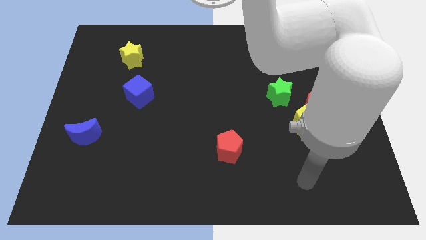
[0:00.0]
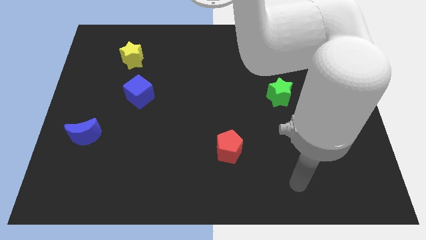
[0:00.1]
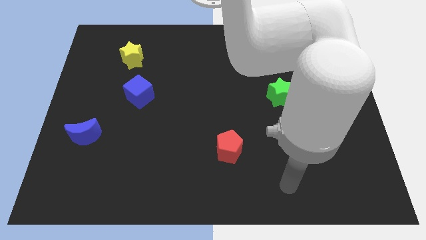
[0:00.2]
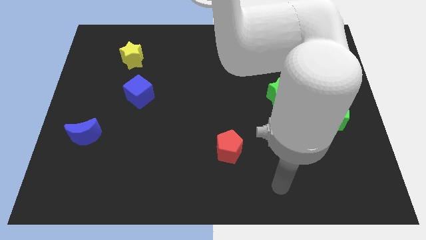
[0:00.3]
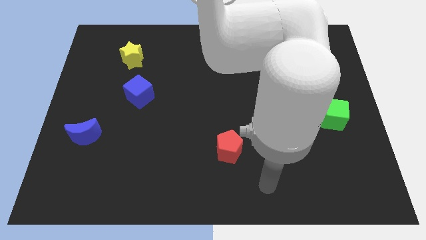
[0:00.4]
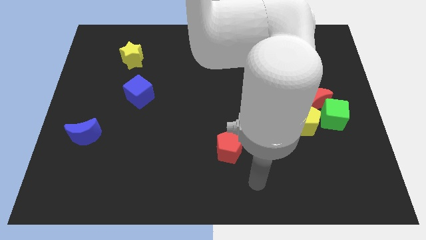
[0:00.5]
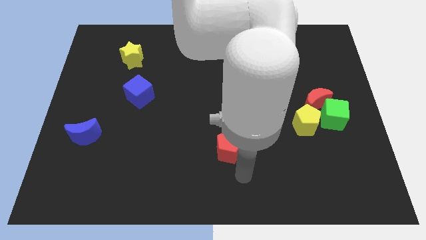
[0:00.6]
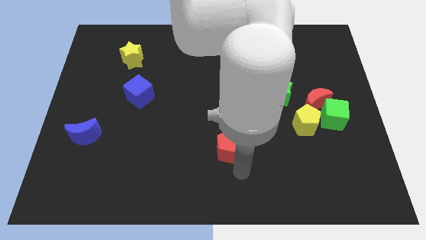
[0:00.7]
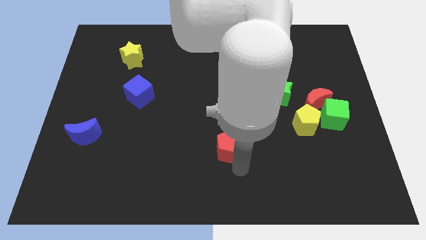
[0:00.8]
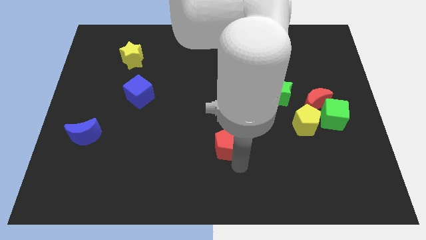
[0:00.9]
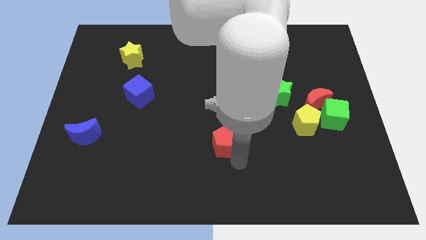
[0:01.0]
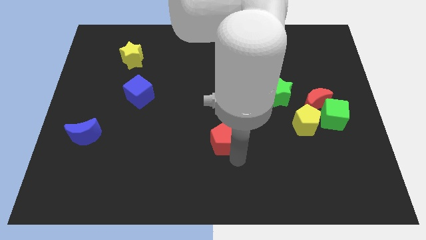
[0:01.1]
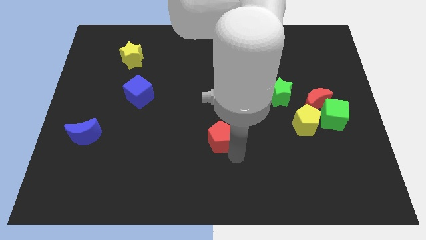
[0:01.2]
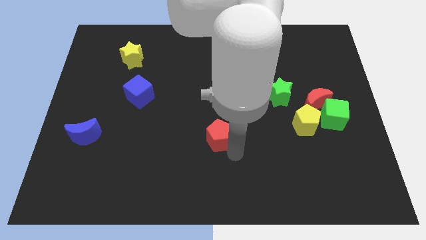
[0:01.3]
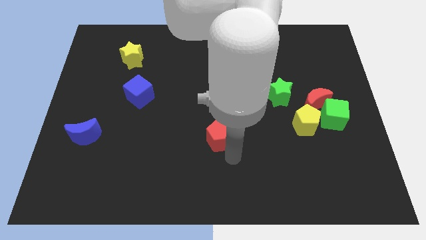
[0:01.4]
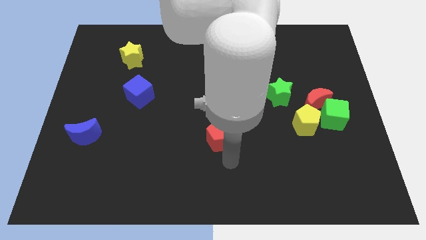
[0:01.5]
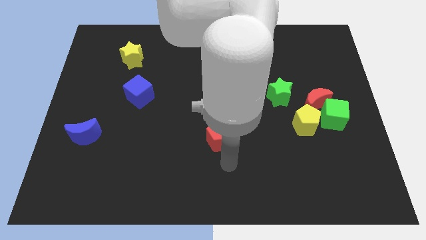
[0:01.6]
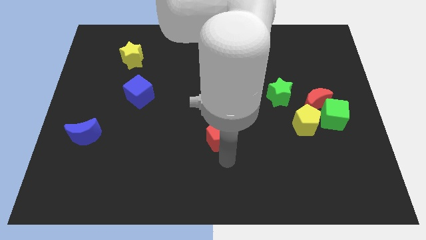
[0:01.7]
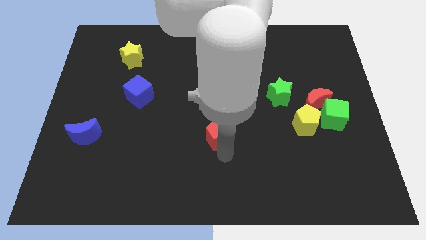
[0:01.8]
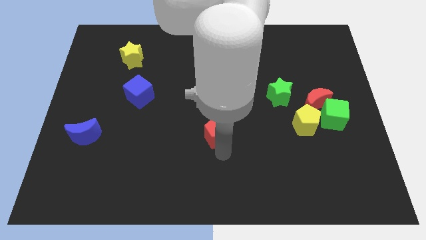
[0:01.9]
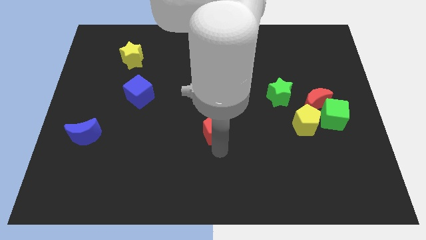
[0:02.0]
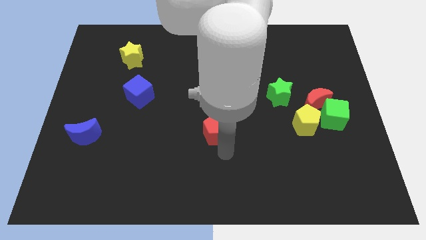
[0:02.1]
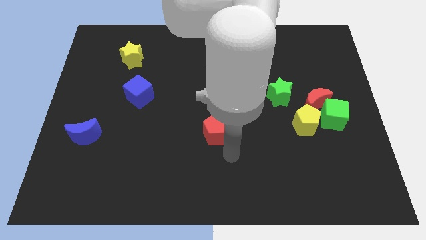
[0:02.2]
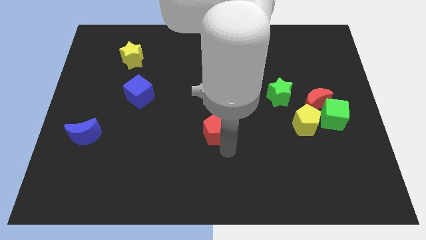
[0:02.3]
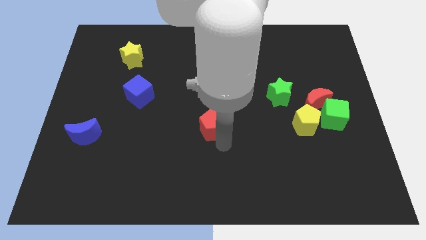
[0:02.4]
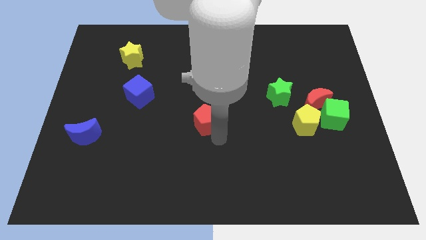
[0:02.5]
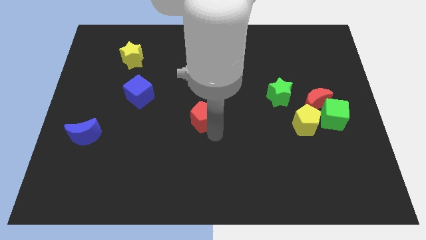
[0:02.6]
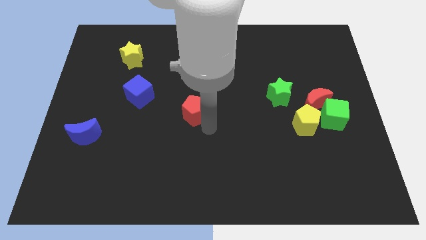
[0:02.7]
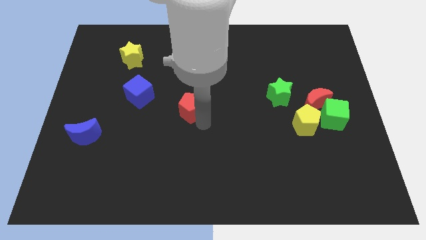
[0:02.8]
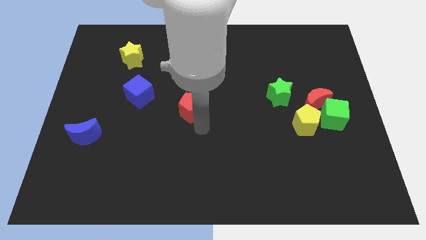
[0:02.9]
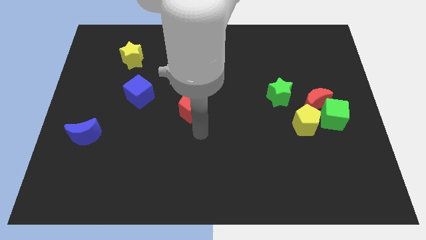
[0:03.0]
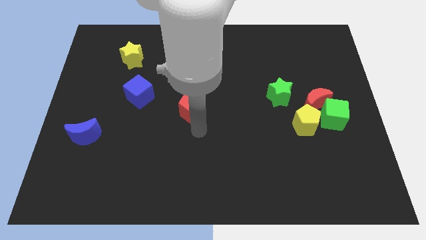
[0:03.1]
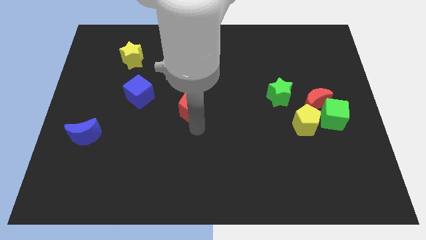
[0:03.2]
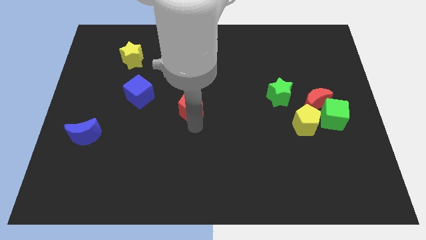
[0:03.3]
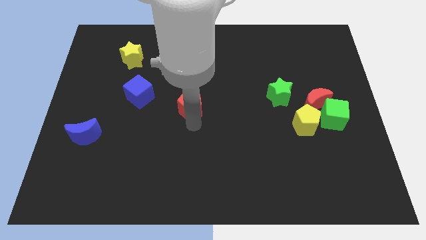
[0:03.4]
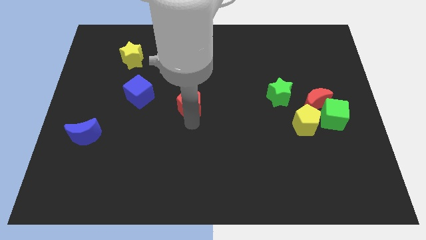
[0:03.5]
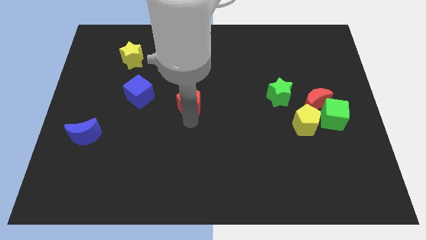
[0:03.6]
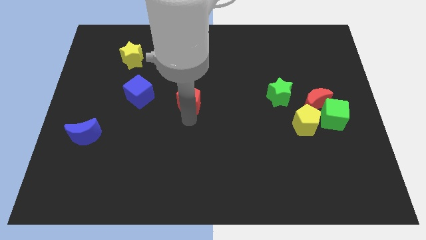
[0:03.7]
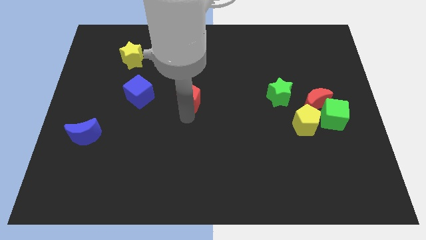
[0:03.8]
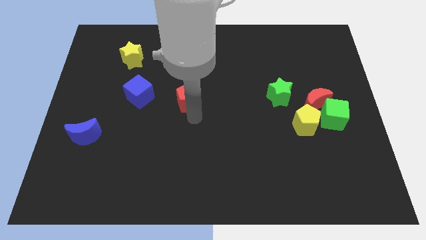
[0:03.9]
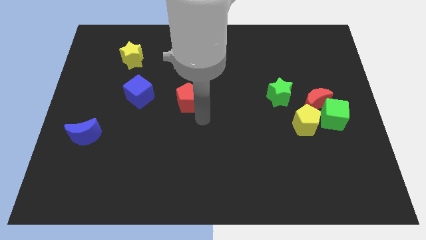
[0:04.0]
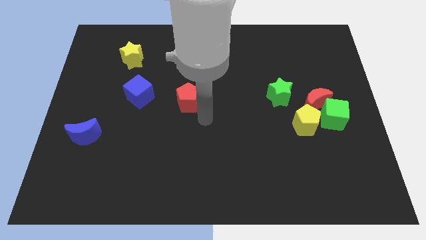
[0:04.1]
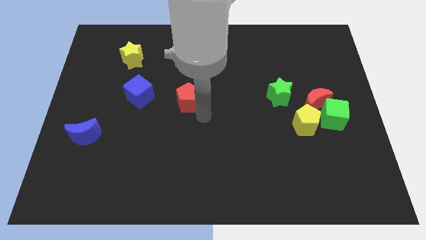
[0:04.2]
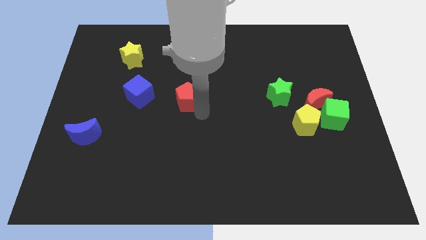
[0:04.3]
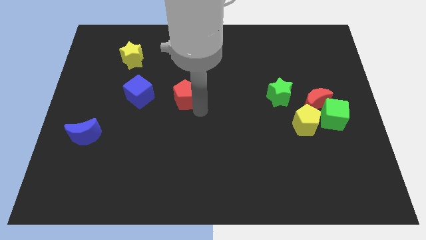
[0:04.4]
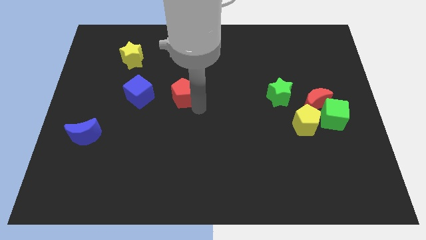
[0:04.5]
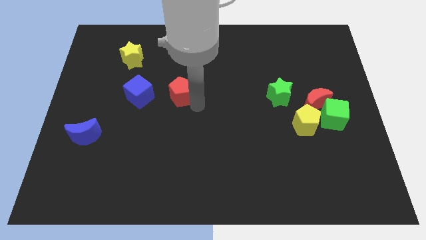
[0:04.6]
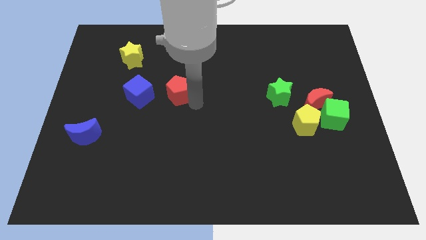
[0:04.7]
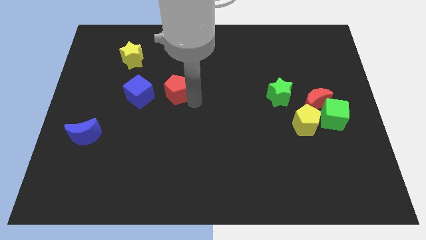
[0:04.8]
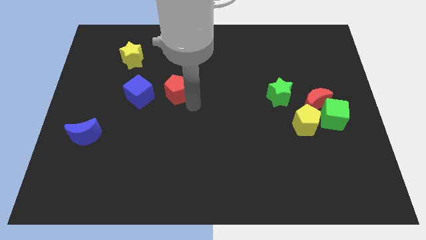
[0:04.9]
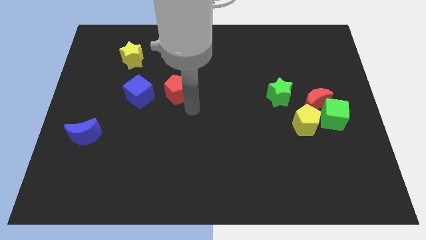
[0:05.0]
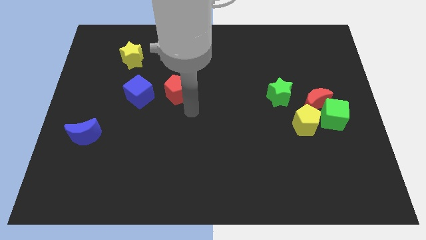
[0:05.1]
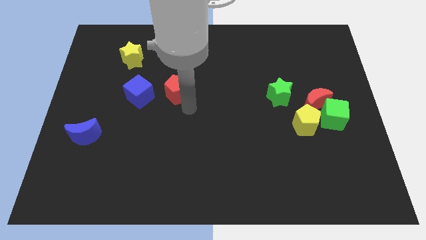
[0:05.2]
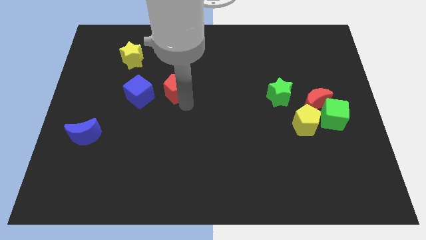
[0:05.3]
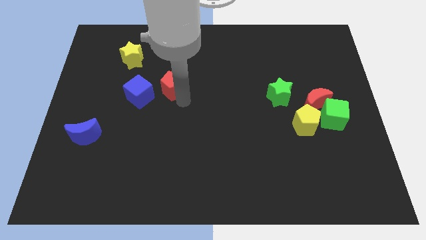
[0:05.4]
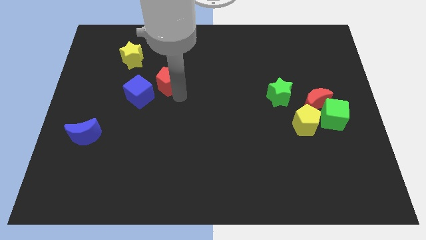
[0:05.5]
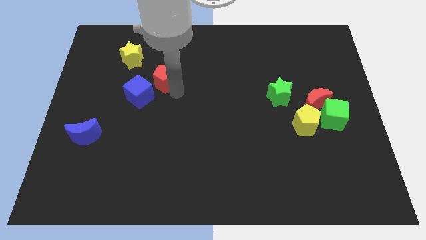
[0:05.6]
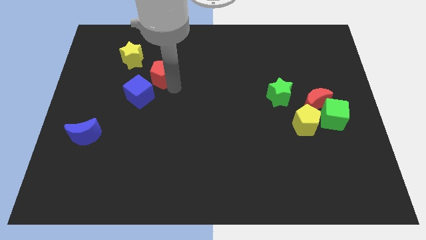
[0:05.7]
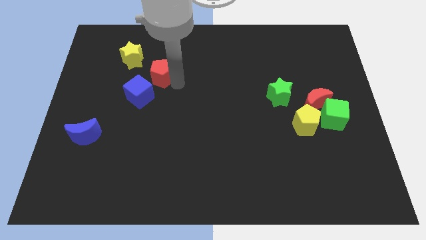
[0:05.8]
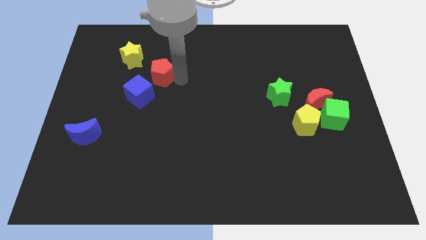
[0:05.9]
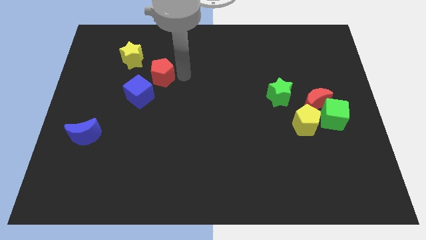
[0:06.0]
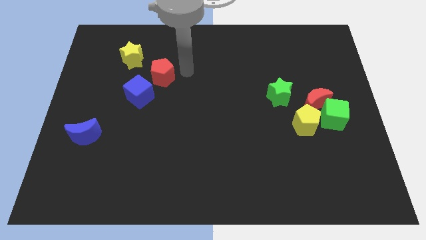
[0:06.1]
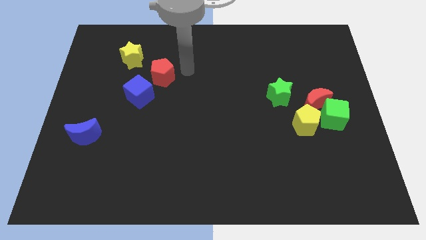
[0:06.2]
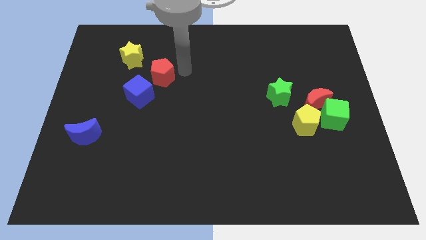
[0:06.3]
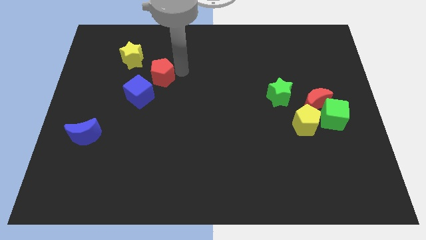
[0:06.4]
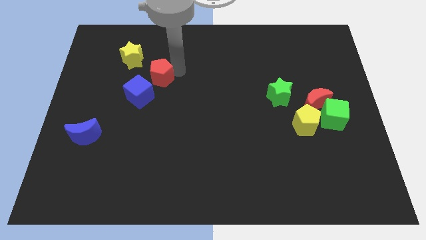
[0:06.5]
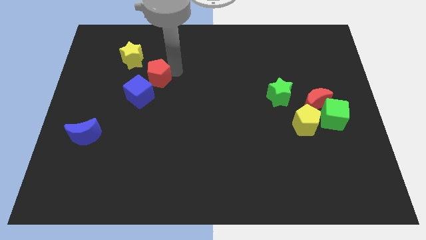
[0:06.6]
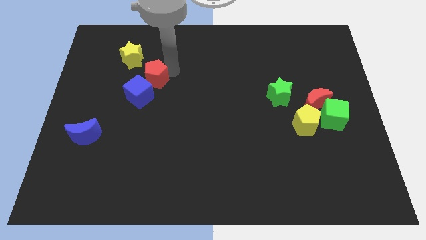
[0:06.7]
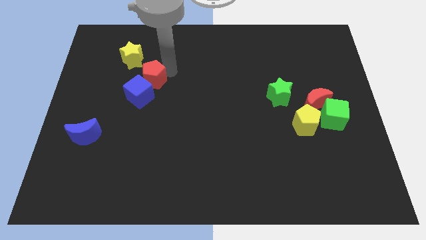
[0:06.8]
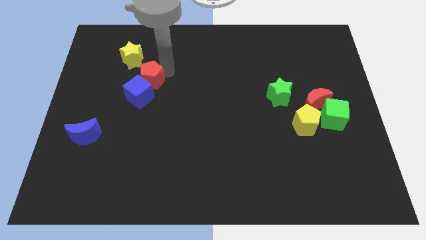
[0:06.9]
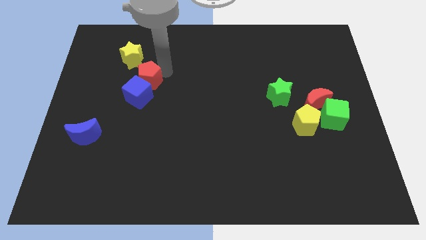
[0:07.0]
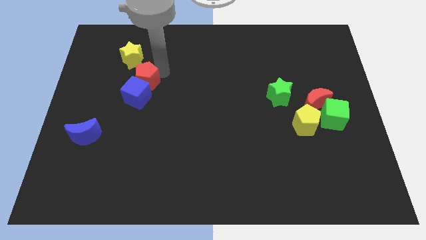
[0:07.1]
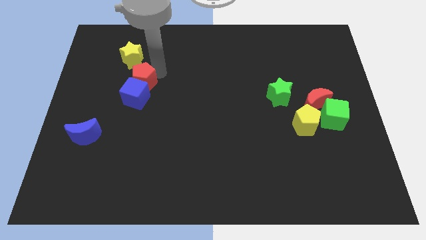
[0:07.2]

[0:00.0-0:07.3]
push the red pentagon to the top left side of the blue cube

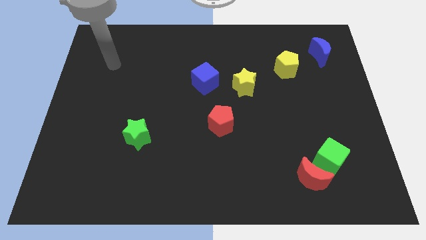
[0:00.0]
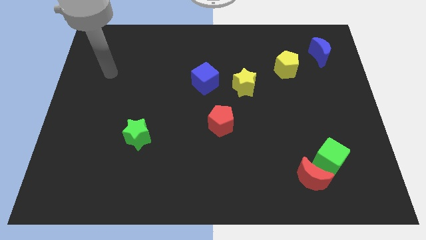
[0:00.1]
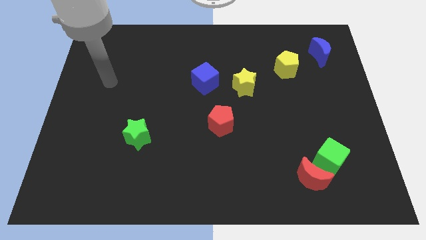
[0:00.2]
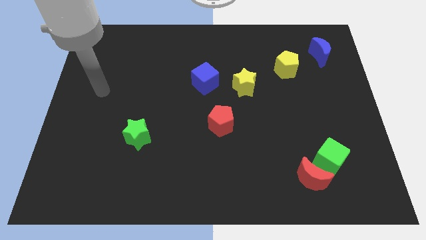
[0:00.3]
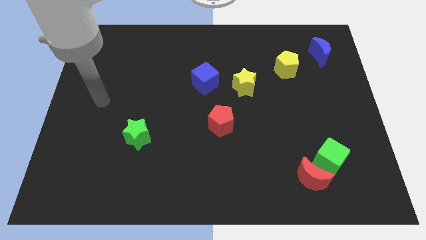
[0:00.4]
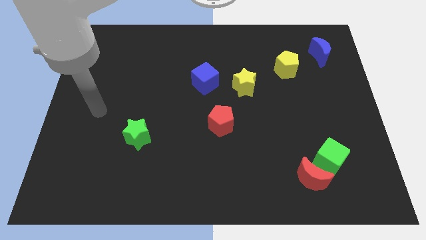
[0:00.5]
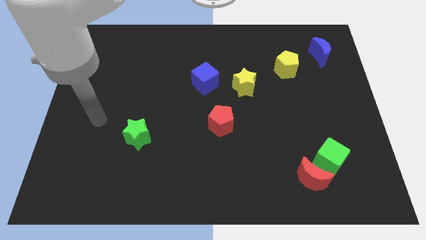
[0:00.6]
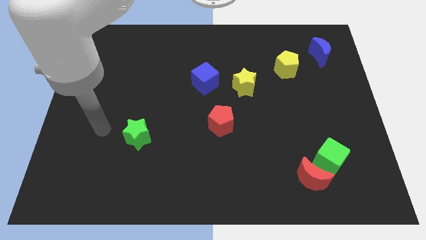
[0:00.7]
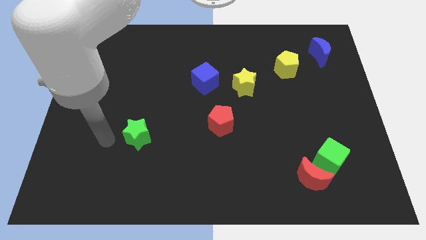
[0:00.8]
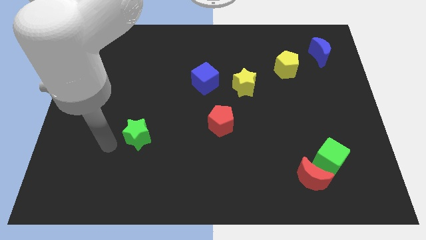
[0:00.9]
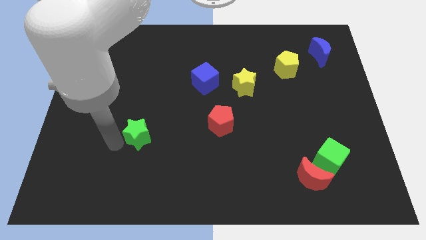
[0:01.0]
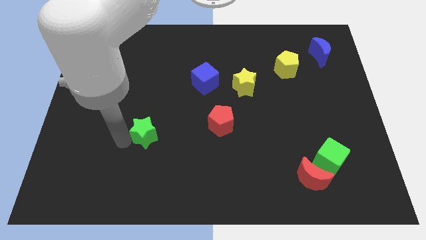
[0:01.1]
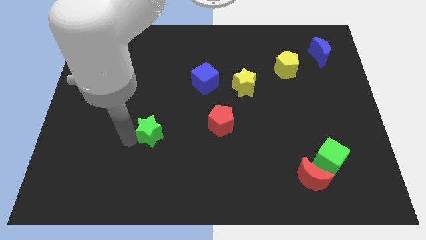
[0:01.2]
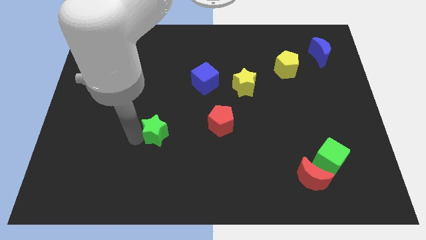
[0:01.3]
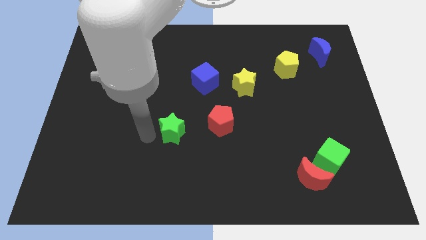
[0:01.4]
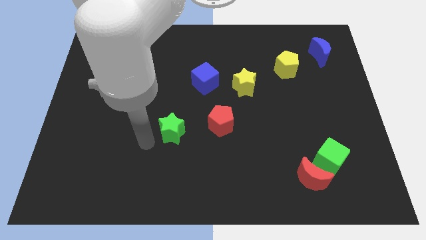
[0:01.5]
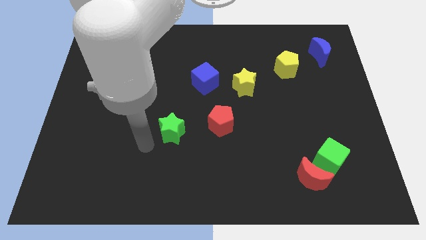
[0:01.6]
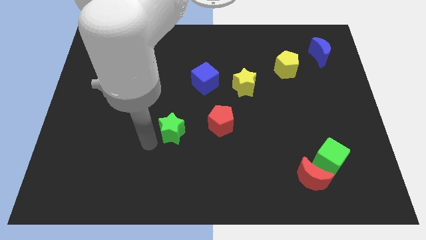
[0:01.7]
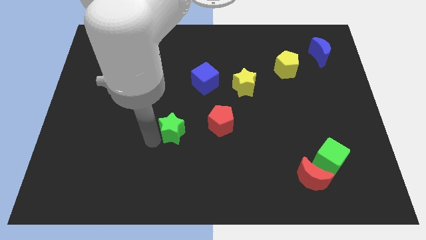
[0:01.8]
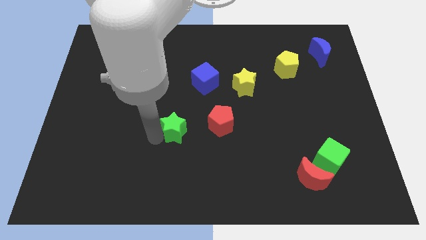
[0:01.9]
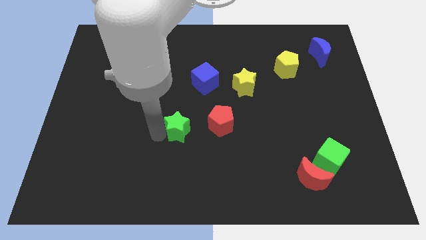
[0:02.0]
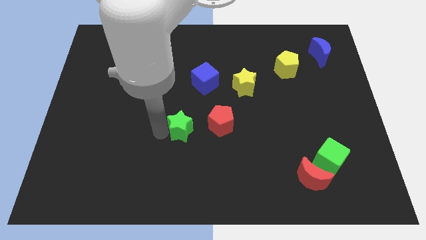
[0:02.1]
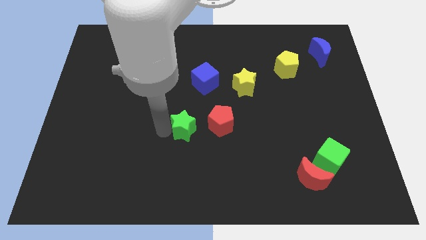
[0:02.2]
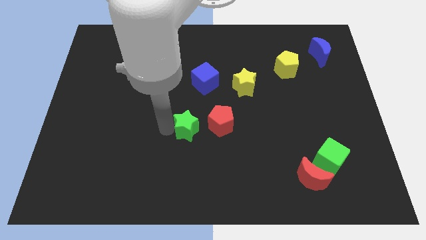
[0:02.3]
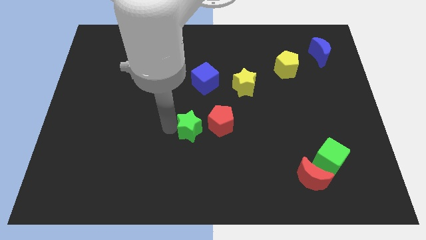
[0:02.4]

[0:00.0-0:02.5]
put the green star to the bottom side of the blue cube
